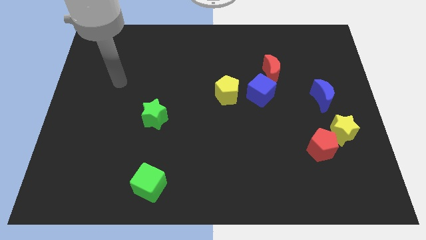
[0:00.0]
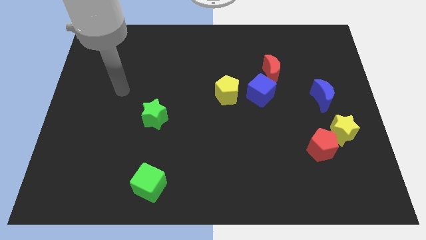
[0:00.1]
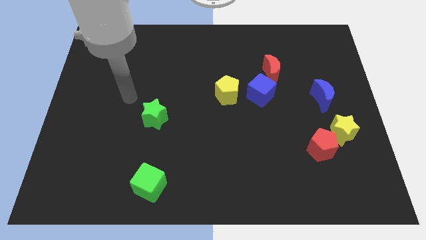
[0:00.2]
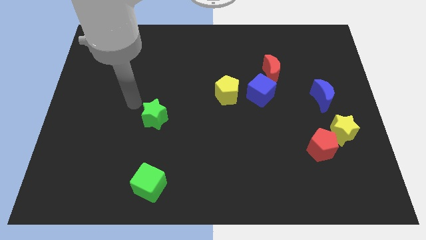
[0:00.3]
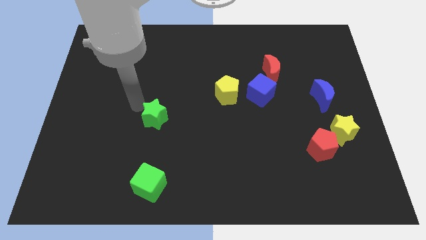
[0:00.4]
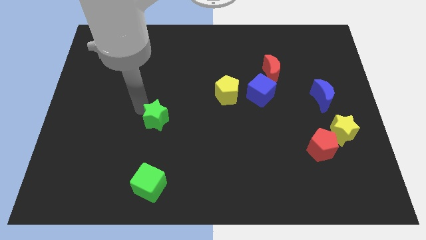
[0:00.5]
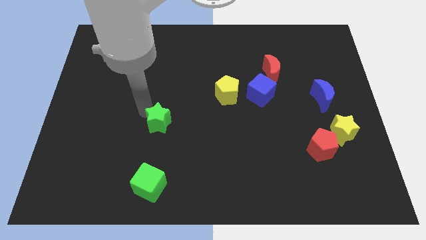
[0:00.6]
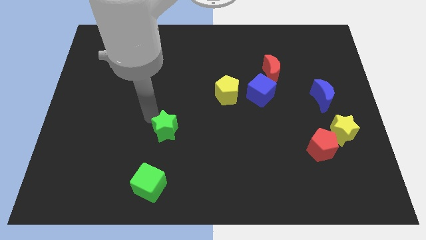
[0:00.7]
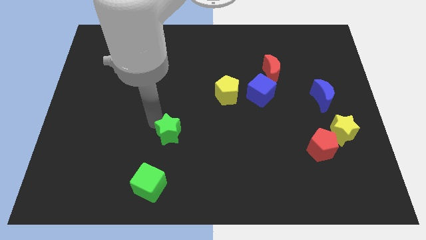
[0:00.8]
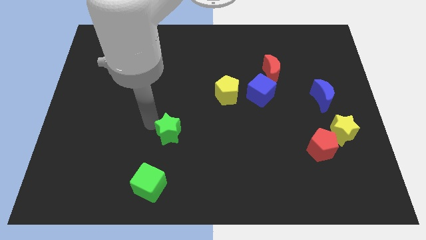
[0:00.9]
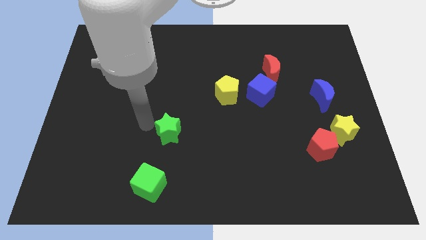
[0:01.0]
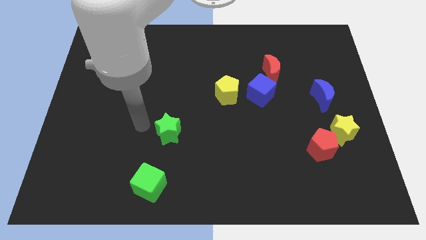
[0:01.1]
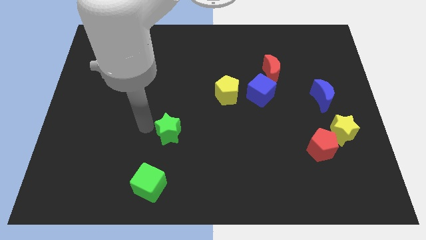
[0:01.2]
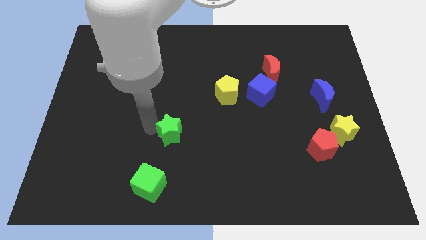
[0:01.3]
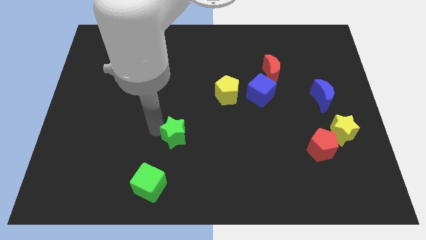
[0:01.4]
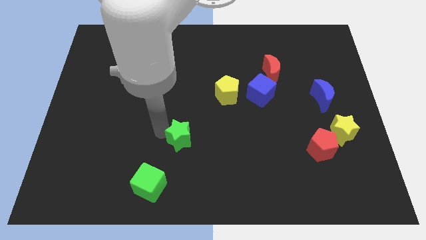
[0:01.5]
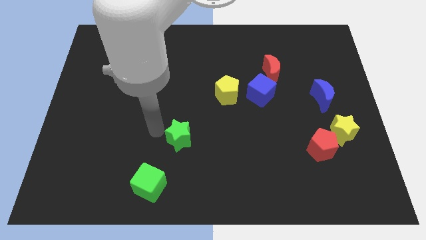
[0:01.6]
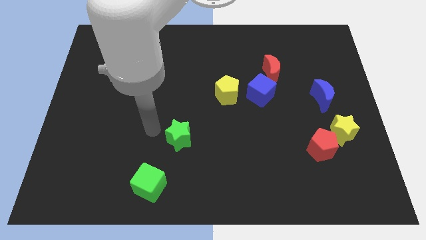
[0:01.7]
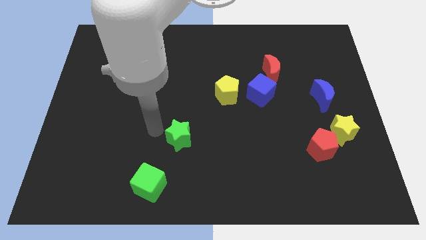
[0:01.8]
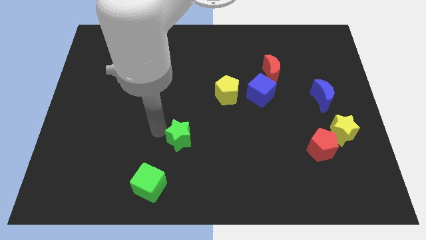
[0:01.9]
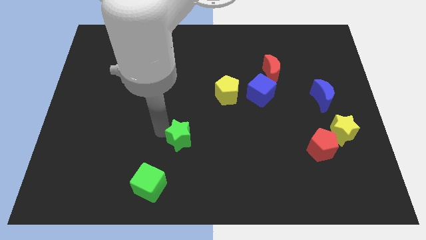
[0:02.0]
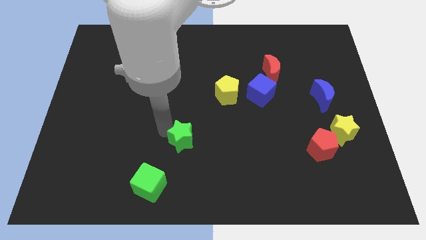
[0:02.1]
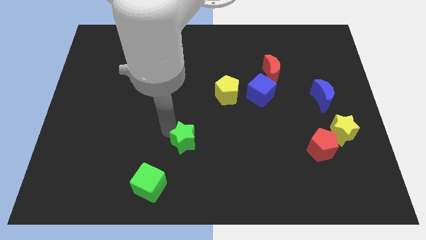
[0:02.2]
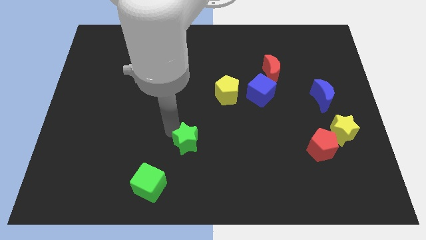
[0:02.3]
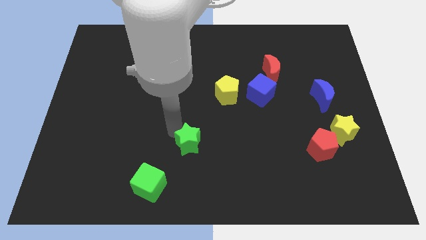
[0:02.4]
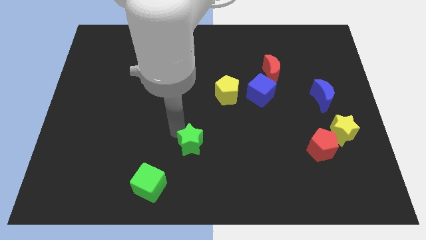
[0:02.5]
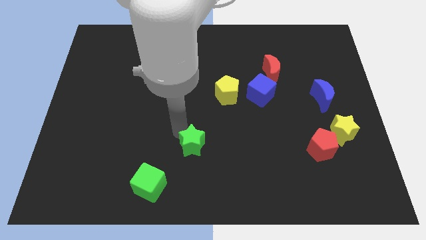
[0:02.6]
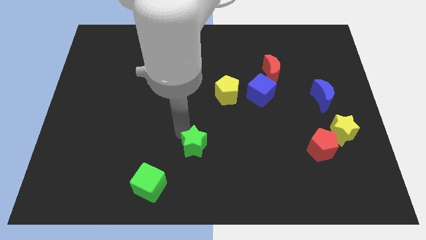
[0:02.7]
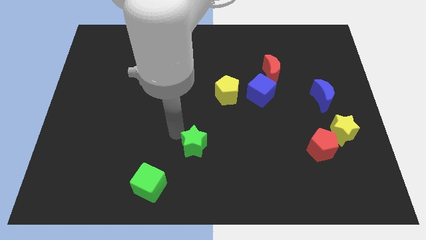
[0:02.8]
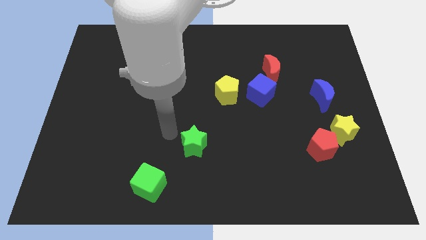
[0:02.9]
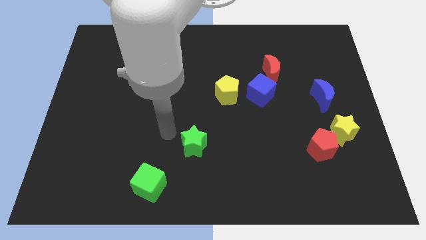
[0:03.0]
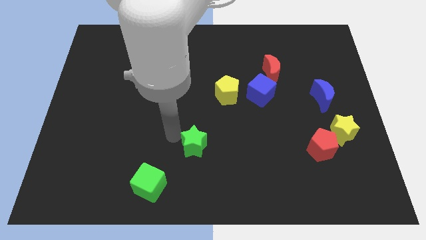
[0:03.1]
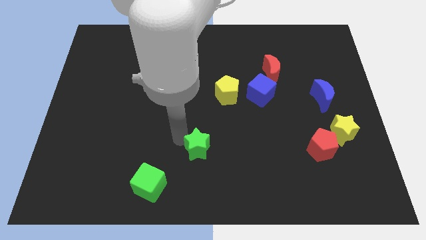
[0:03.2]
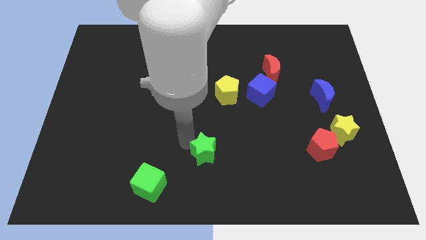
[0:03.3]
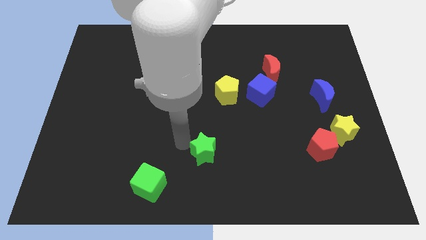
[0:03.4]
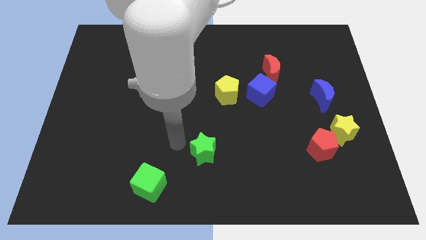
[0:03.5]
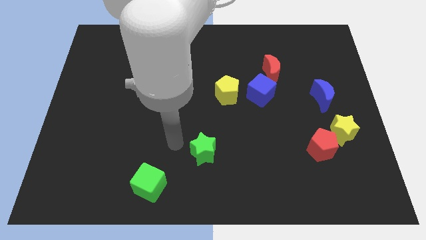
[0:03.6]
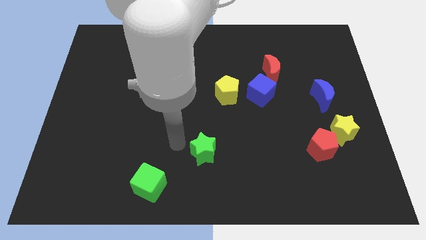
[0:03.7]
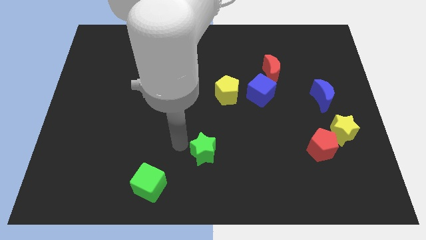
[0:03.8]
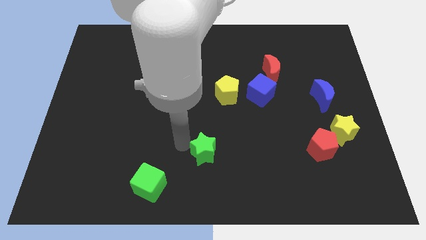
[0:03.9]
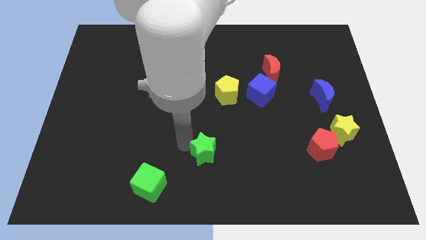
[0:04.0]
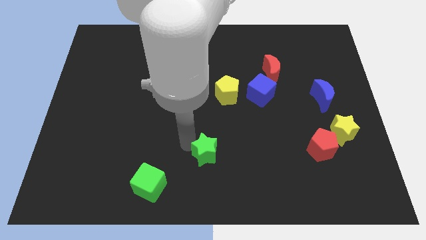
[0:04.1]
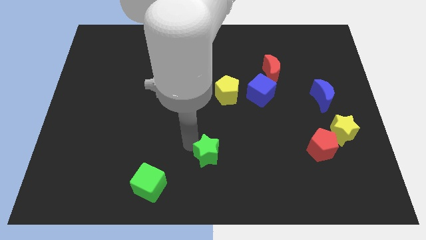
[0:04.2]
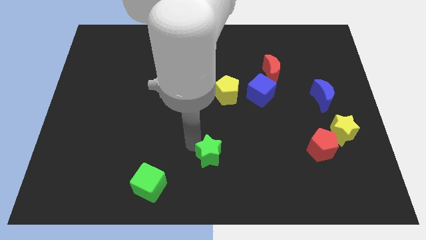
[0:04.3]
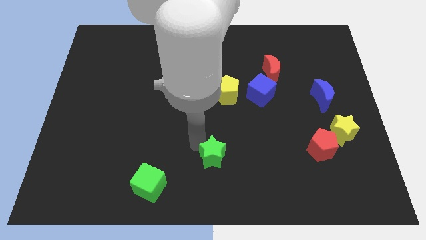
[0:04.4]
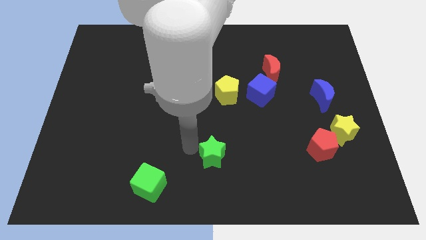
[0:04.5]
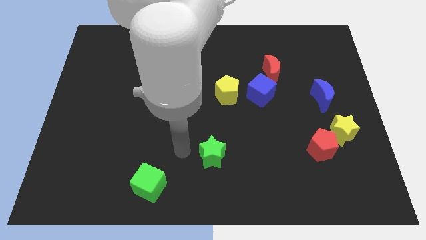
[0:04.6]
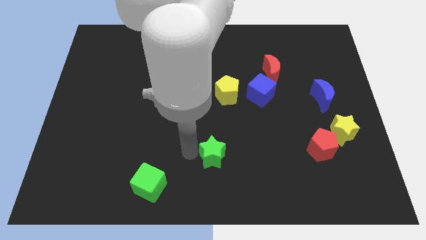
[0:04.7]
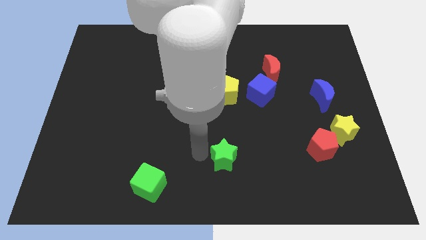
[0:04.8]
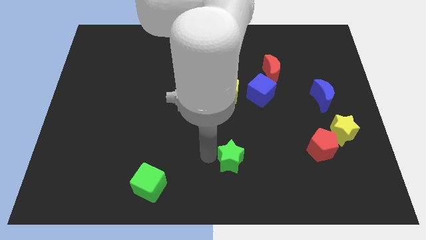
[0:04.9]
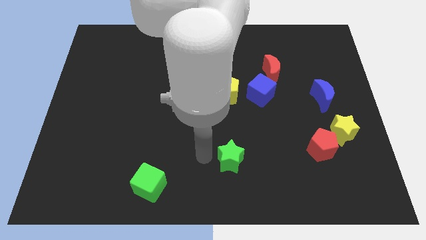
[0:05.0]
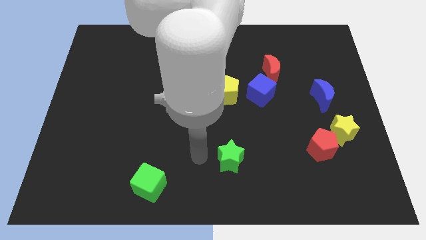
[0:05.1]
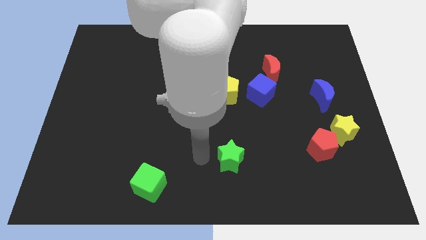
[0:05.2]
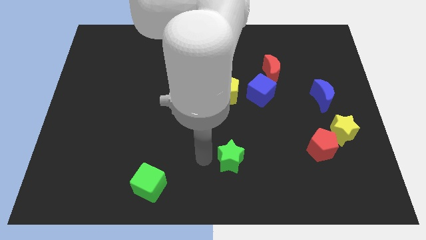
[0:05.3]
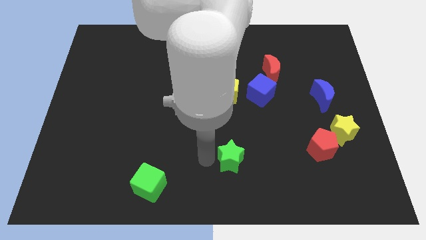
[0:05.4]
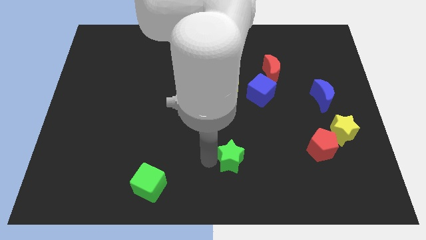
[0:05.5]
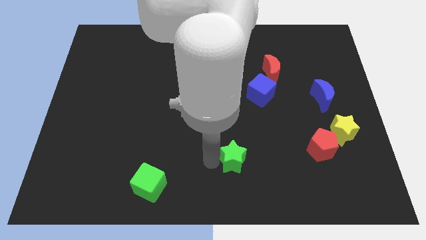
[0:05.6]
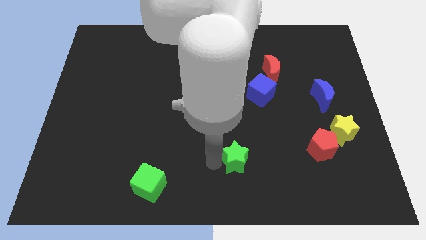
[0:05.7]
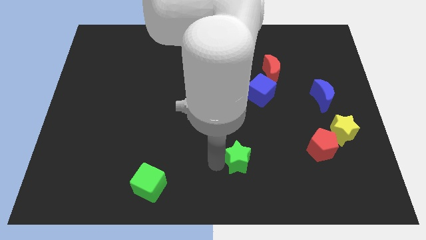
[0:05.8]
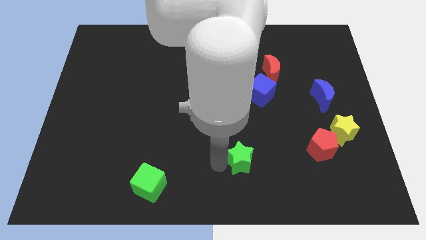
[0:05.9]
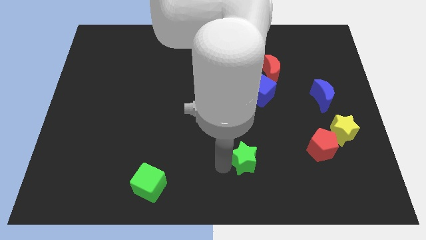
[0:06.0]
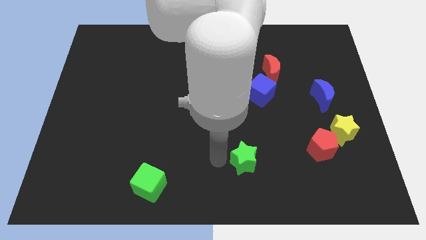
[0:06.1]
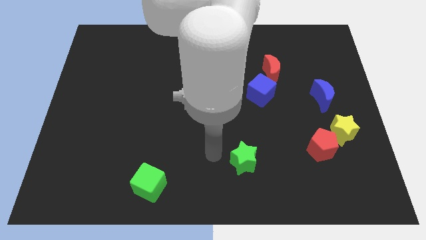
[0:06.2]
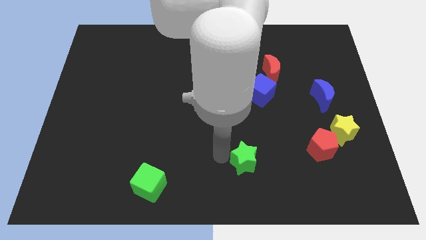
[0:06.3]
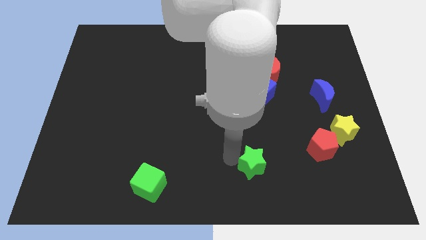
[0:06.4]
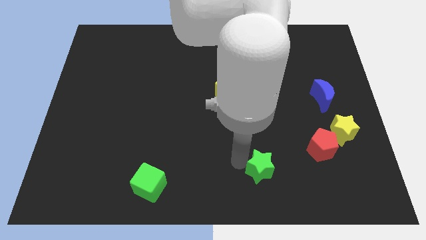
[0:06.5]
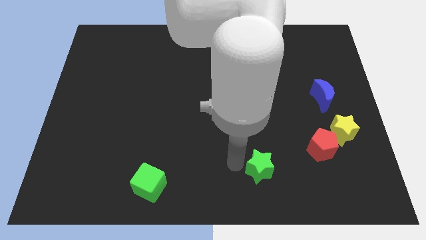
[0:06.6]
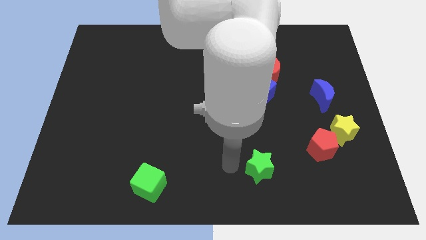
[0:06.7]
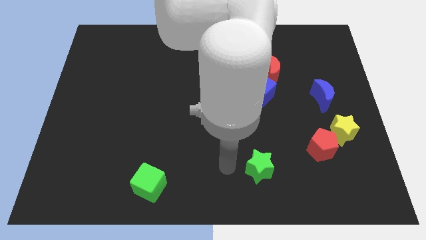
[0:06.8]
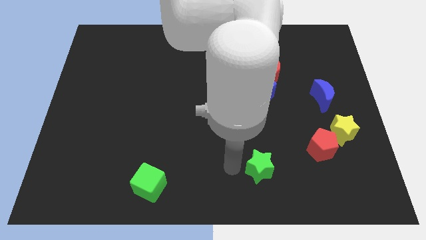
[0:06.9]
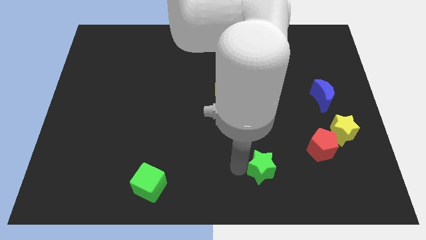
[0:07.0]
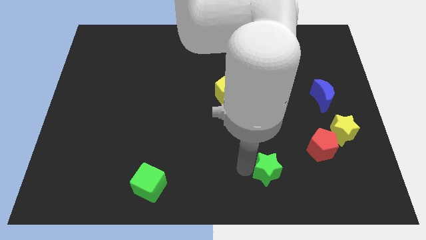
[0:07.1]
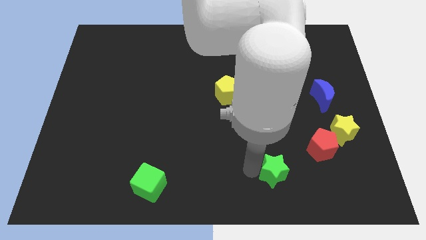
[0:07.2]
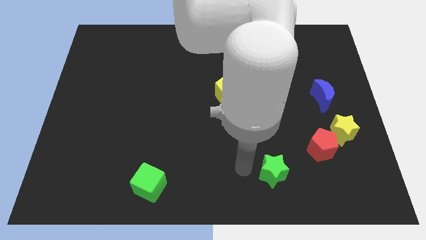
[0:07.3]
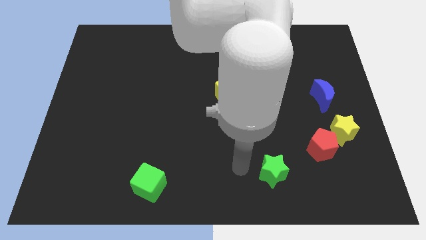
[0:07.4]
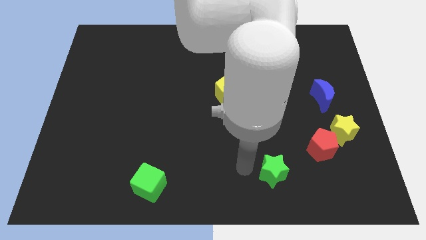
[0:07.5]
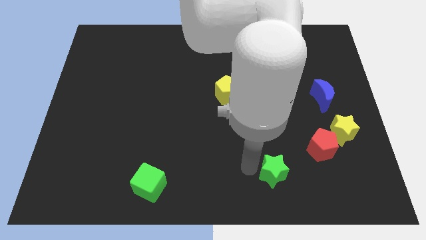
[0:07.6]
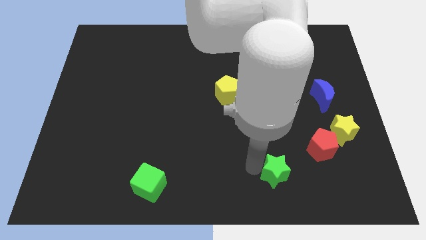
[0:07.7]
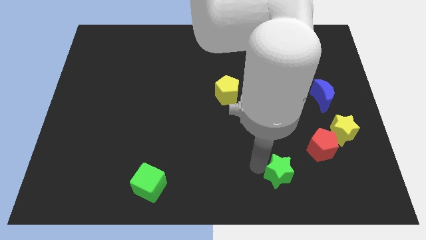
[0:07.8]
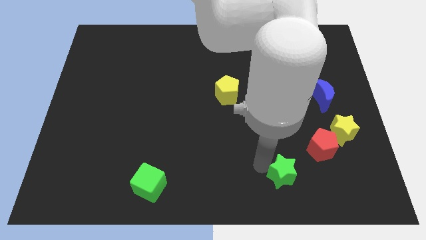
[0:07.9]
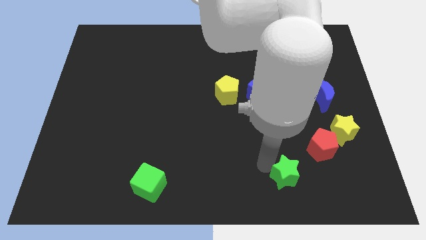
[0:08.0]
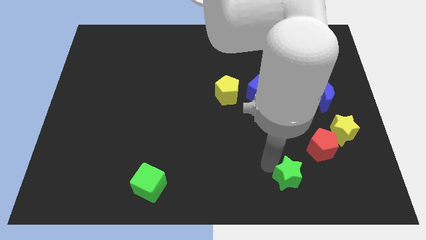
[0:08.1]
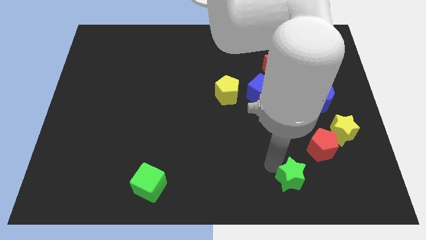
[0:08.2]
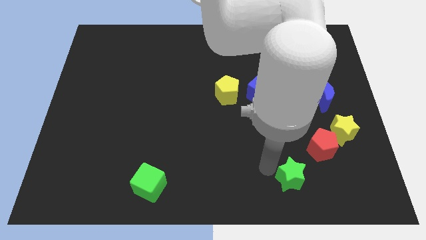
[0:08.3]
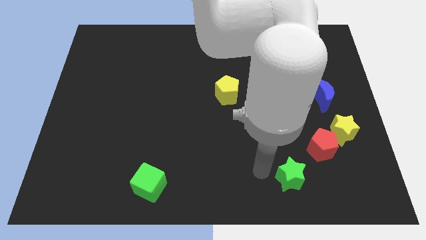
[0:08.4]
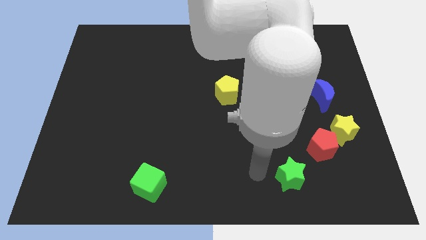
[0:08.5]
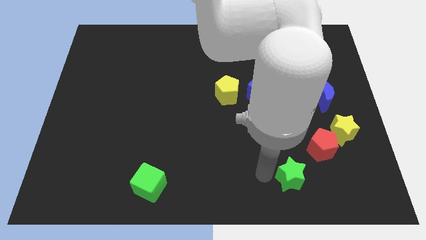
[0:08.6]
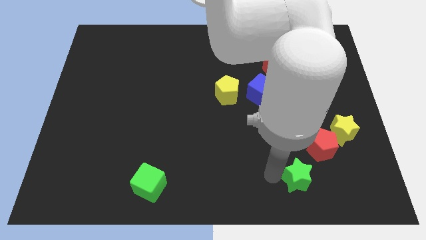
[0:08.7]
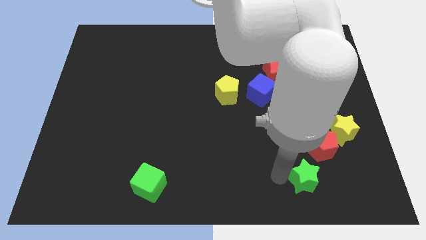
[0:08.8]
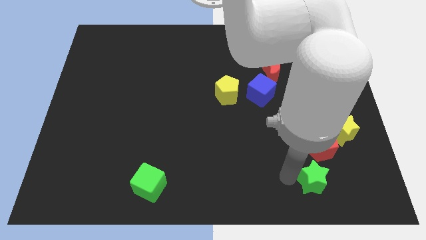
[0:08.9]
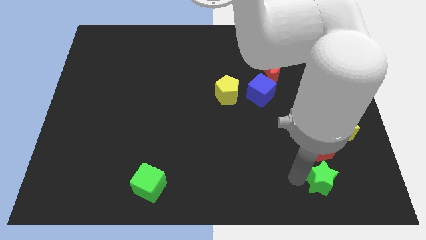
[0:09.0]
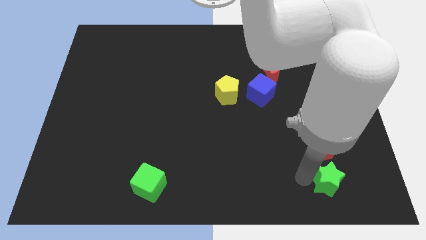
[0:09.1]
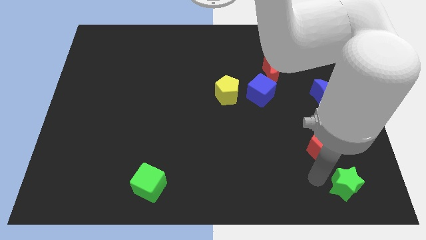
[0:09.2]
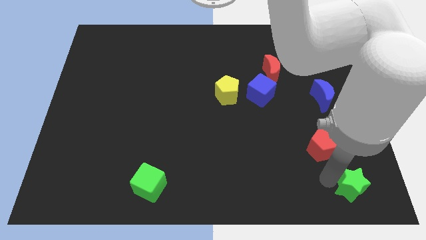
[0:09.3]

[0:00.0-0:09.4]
slide the green star to the lower right corner
